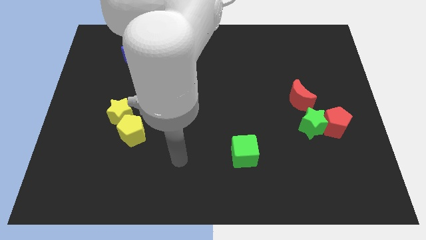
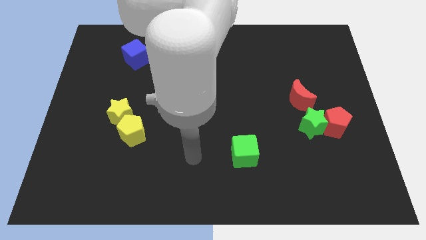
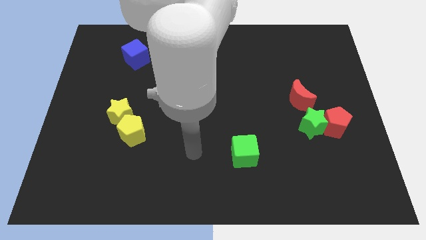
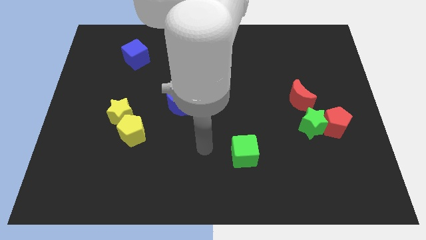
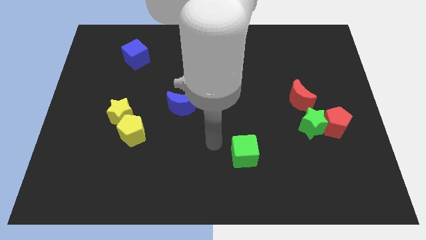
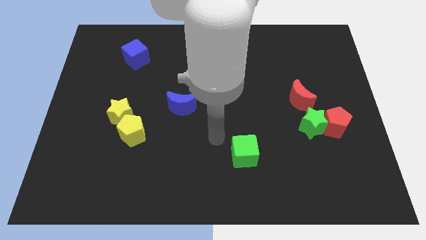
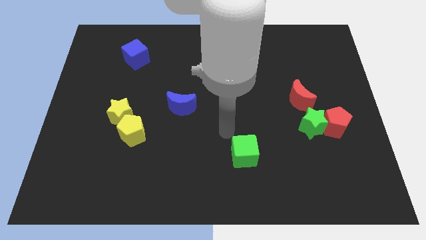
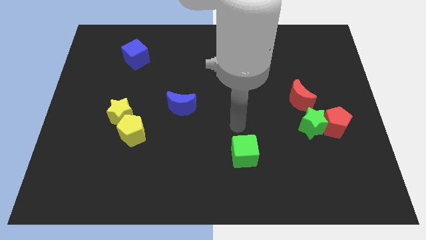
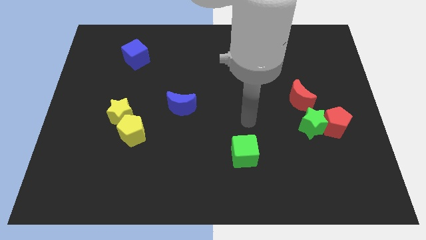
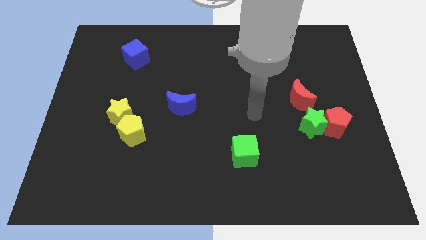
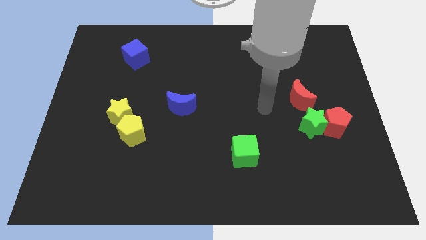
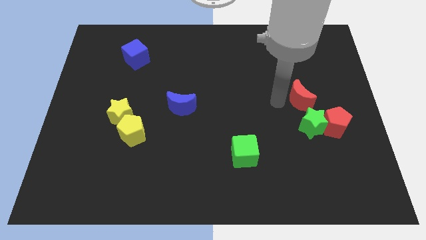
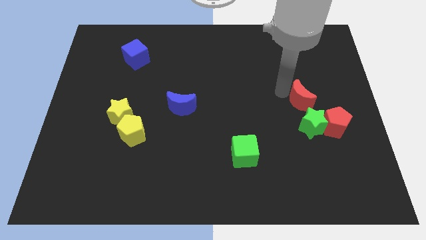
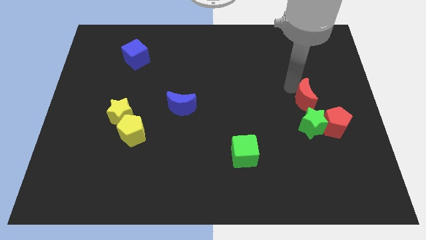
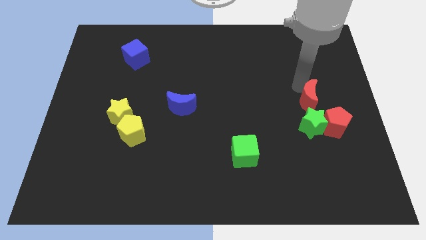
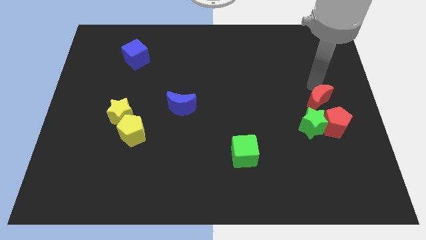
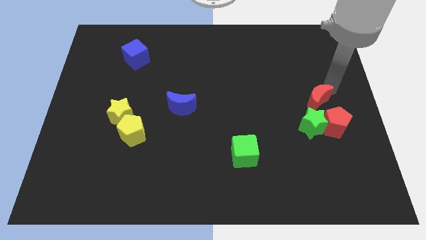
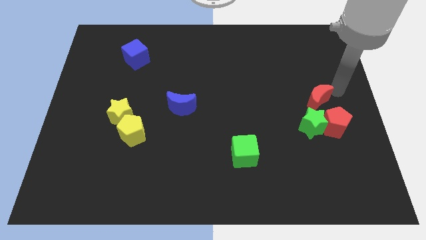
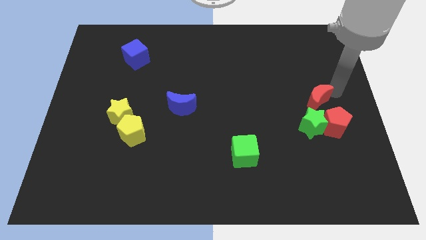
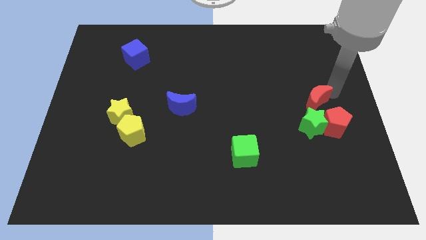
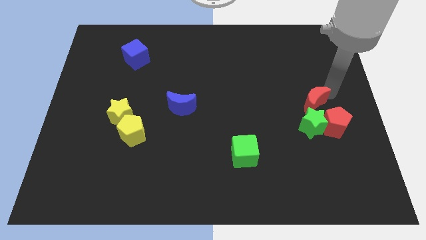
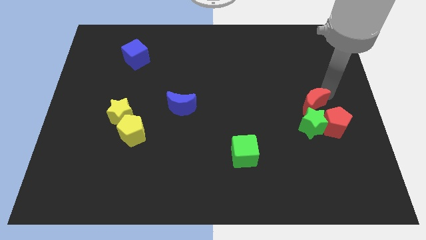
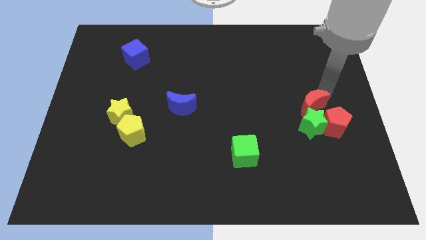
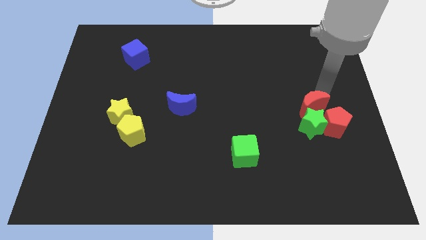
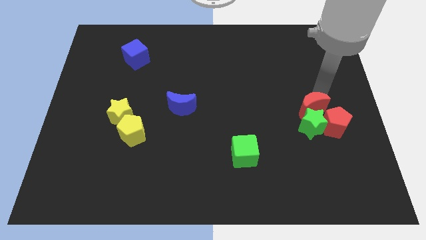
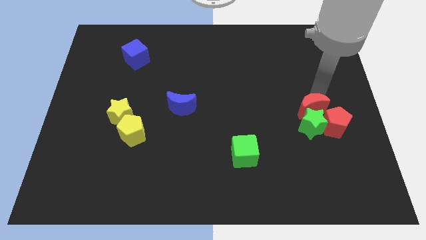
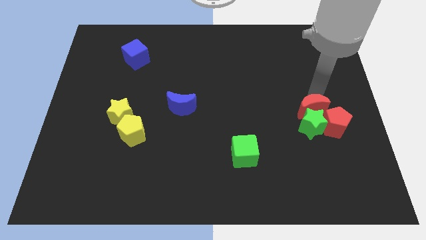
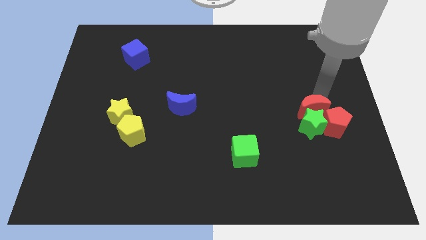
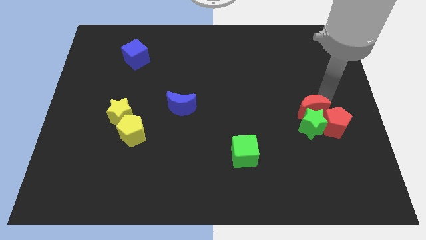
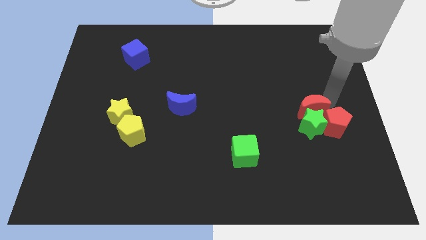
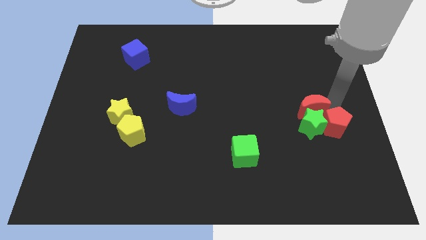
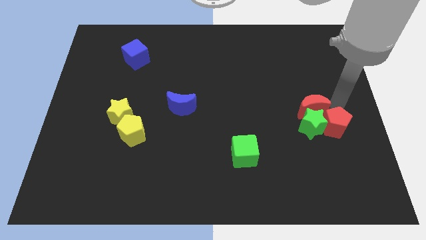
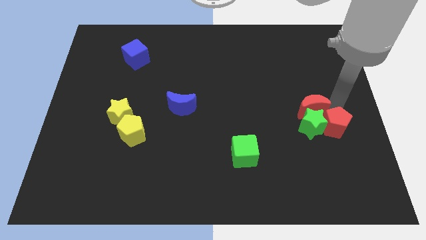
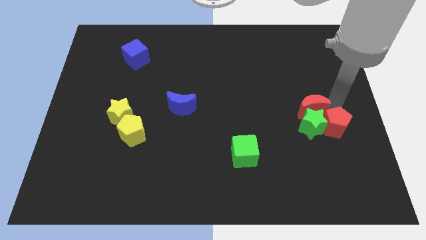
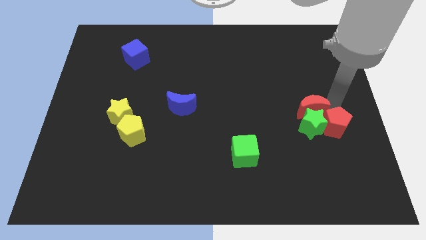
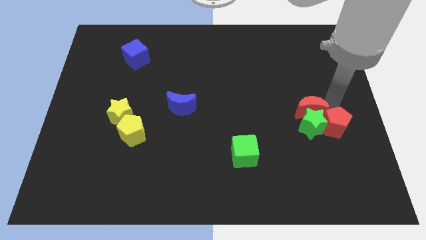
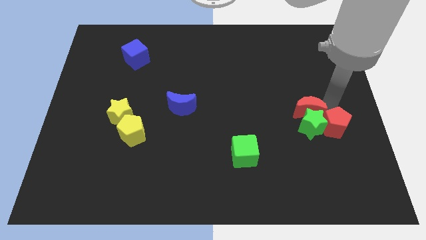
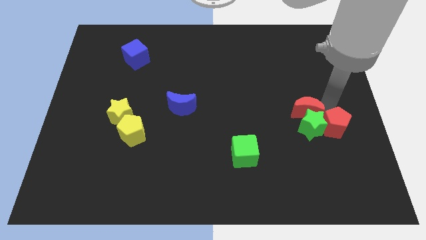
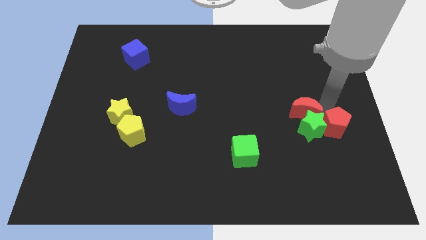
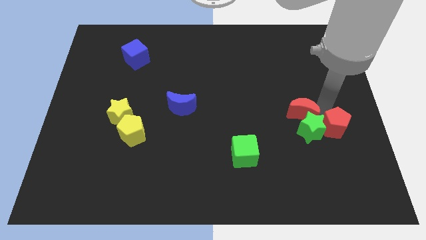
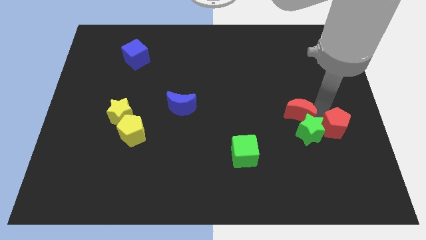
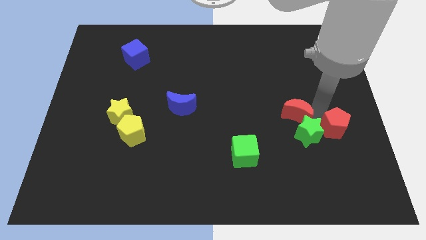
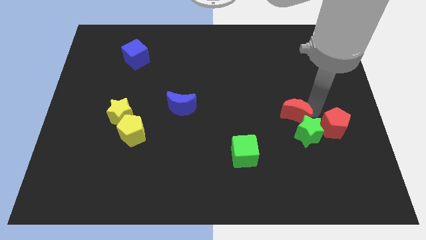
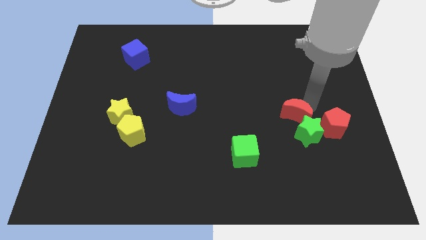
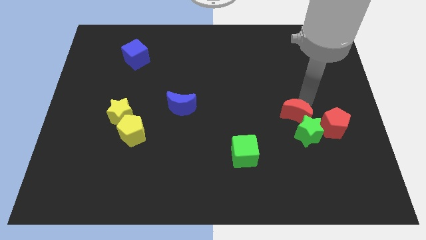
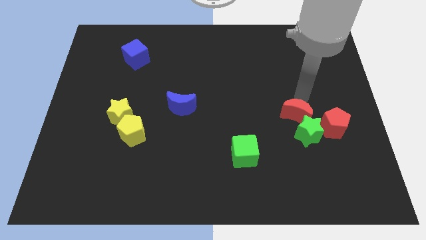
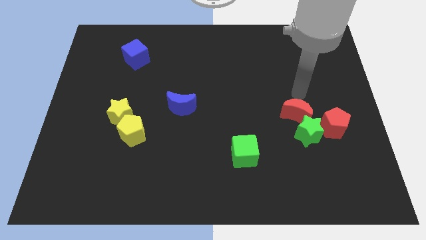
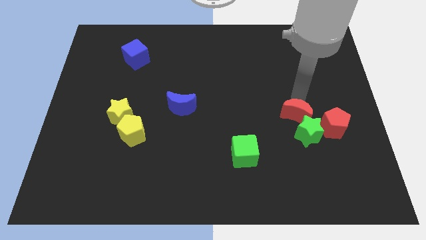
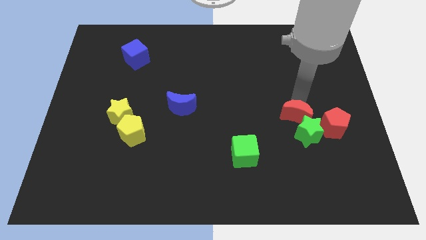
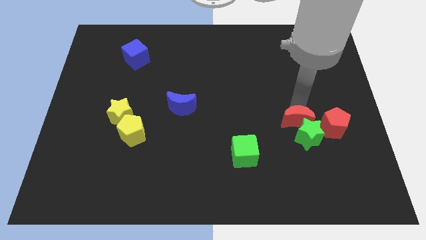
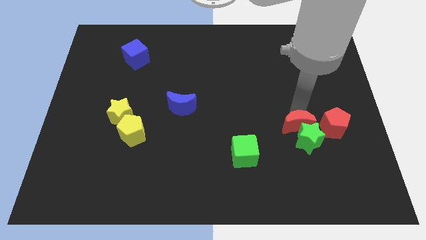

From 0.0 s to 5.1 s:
slightly slide the red moon downwards

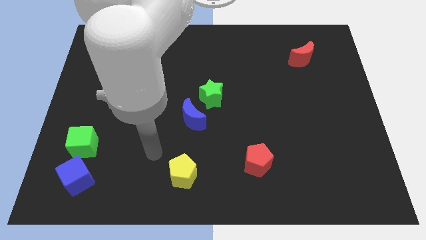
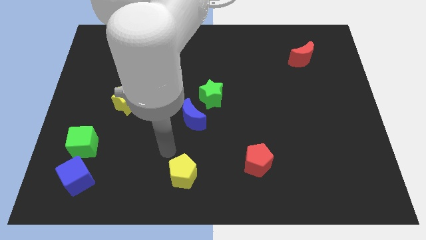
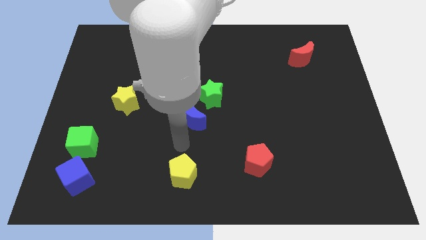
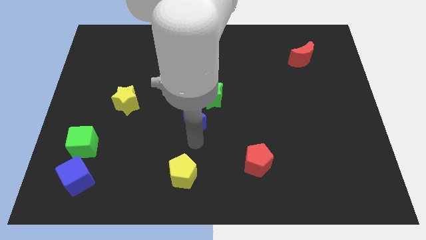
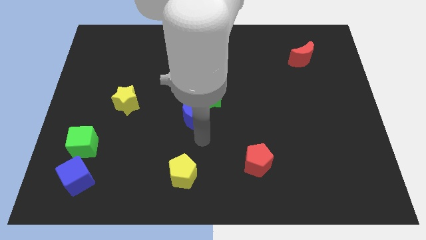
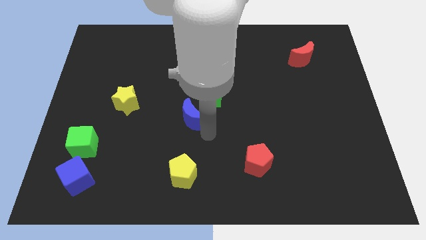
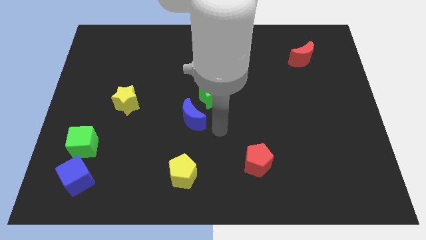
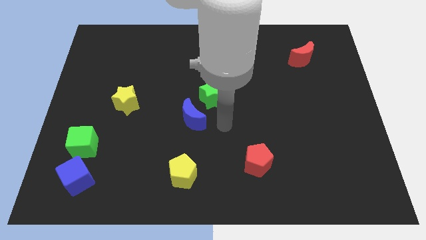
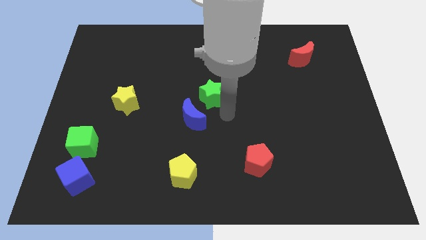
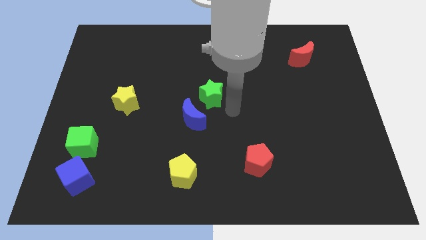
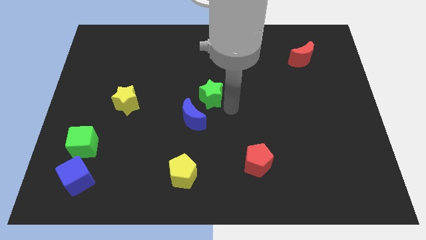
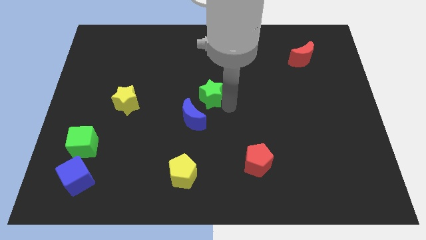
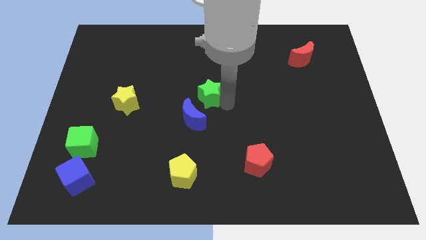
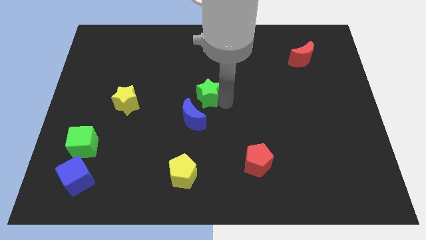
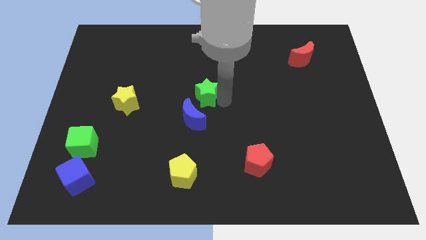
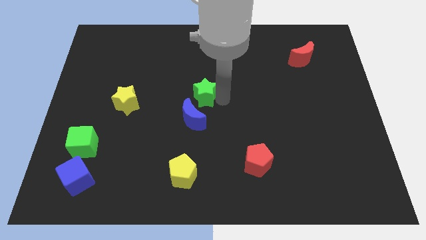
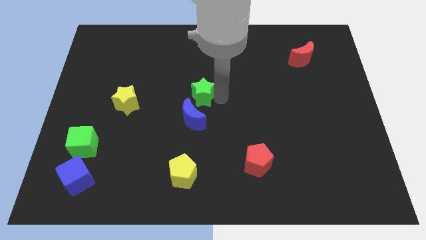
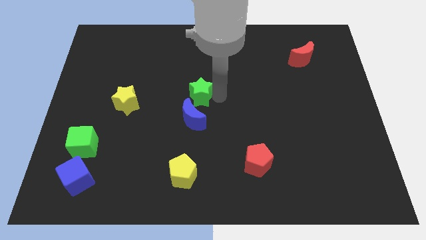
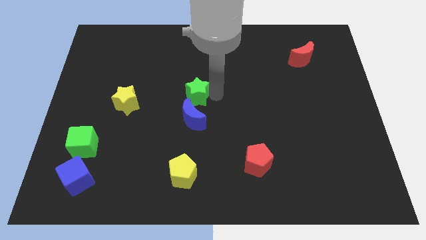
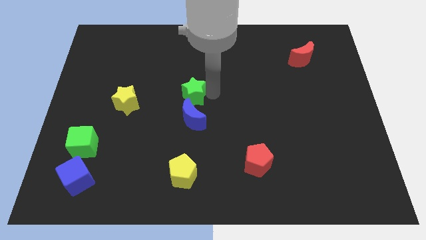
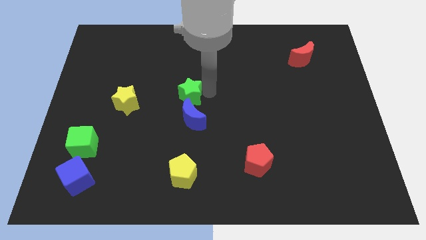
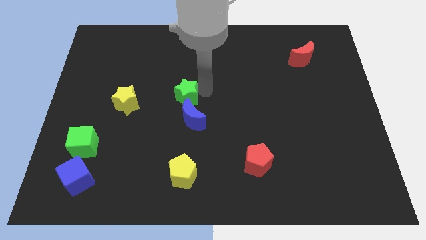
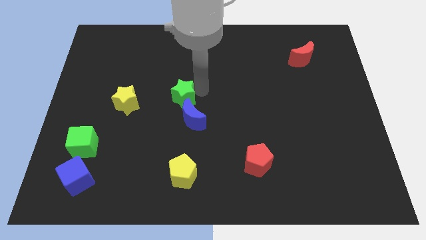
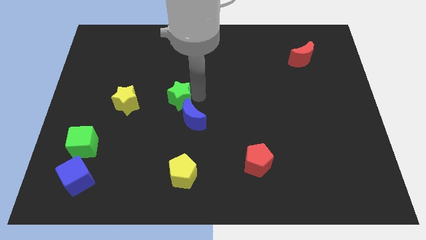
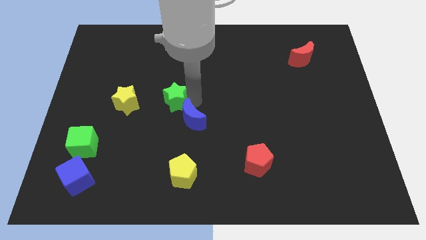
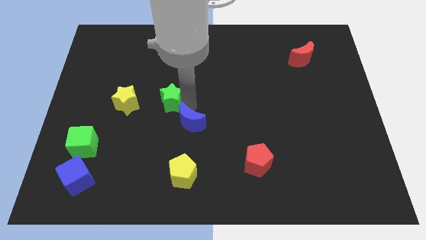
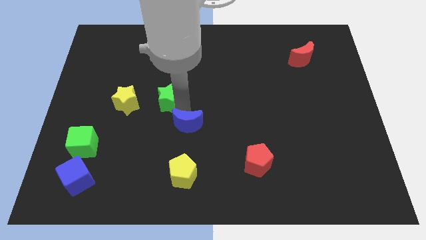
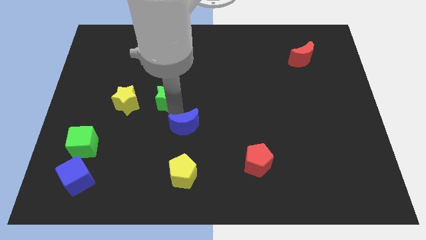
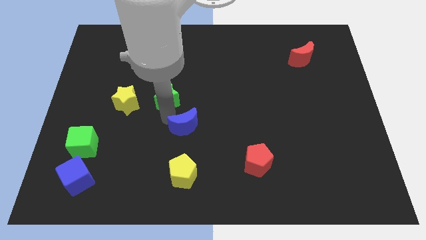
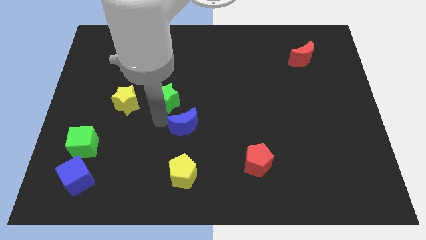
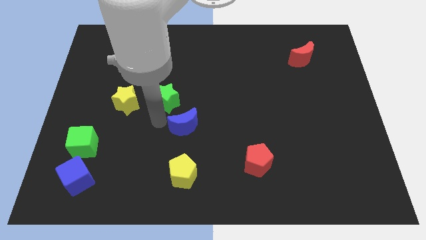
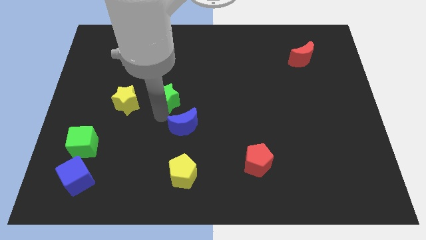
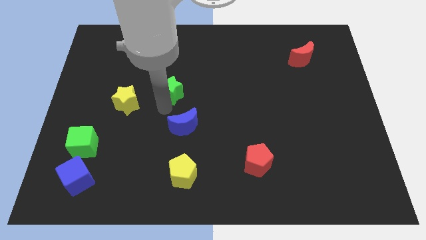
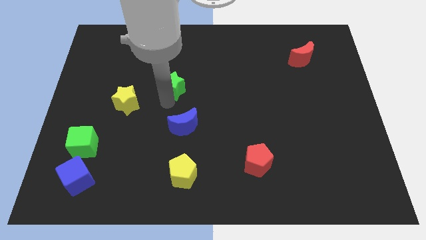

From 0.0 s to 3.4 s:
push the green star upwards and then to the left a bit

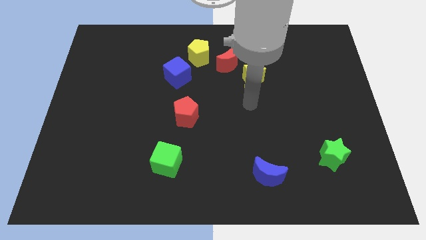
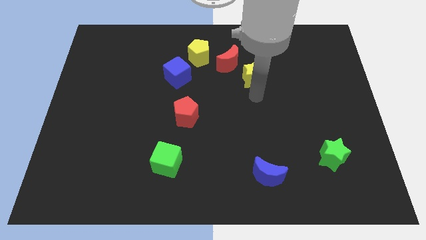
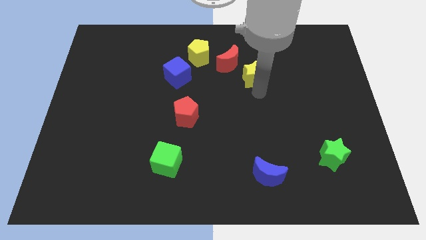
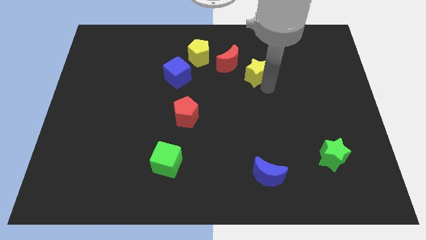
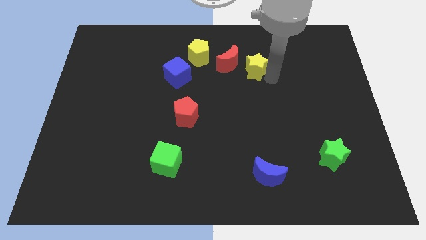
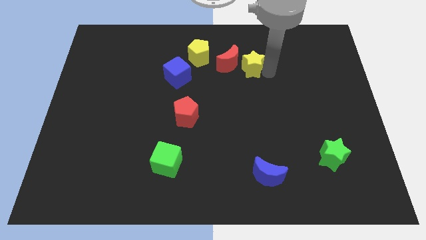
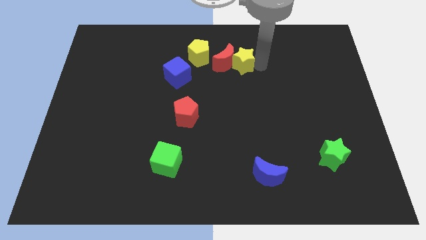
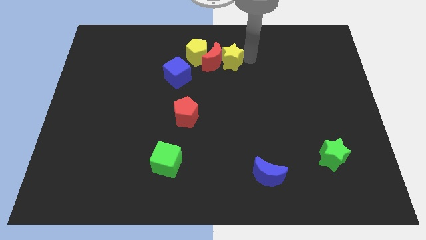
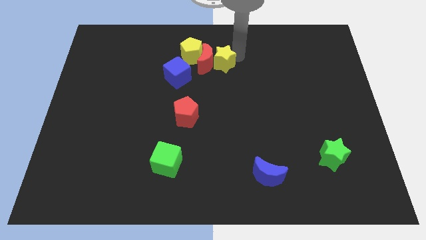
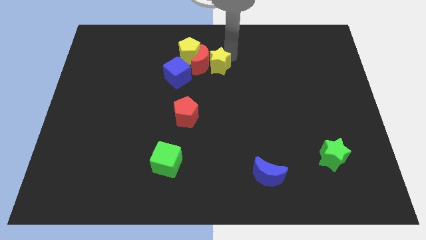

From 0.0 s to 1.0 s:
slide the red moon slightly to the left
